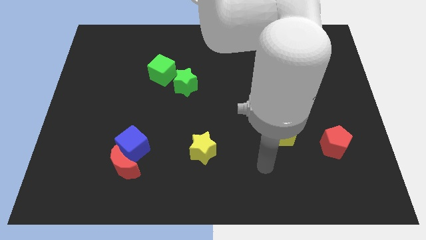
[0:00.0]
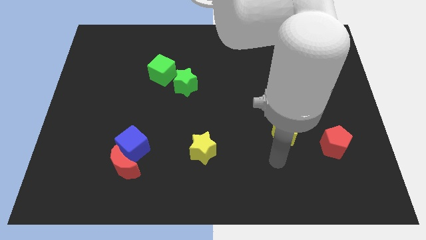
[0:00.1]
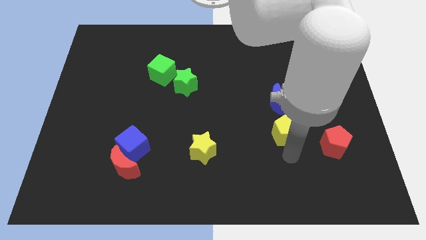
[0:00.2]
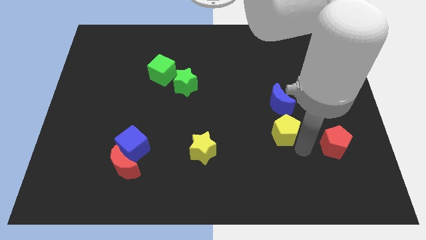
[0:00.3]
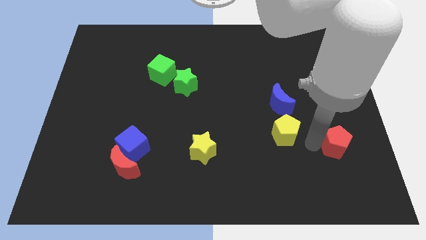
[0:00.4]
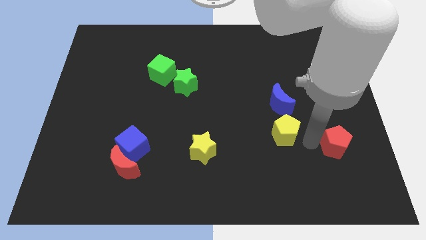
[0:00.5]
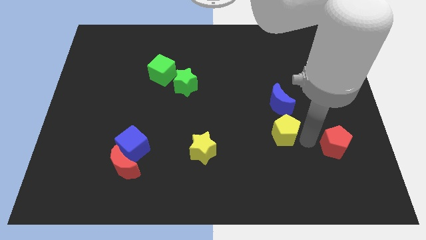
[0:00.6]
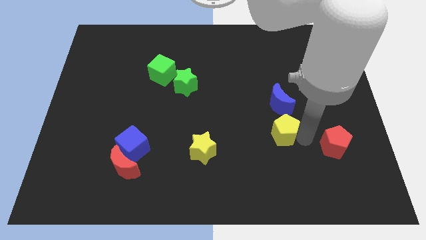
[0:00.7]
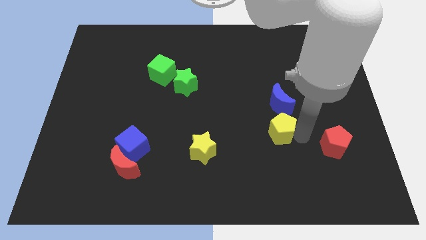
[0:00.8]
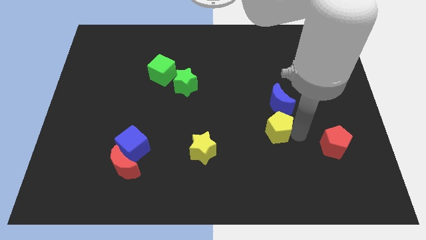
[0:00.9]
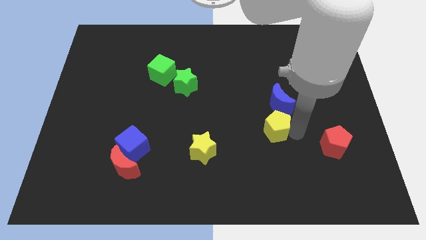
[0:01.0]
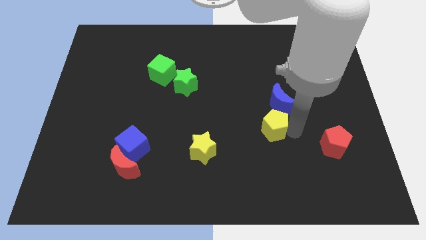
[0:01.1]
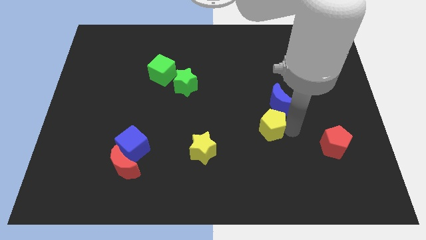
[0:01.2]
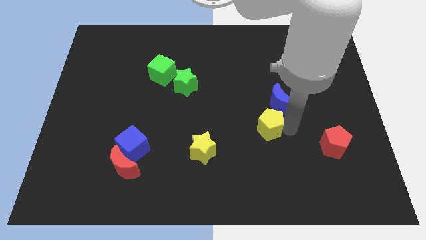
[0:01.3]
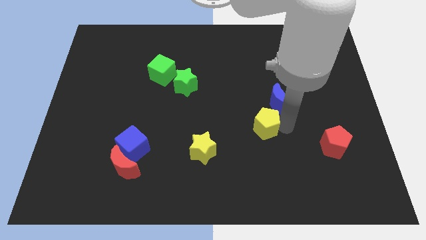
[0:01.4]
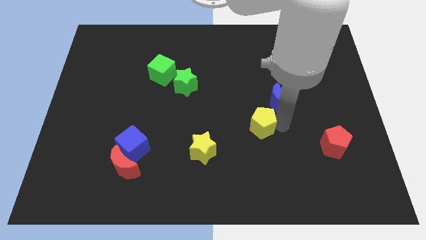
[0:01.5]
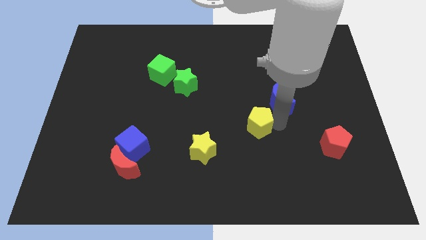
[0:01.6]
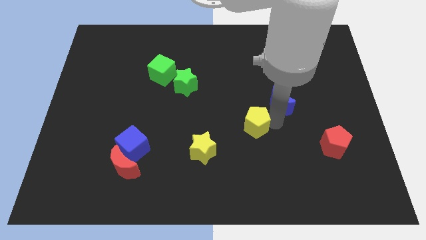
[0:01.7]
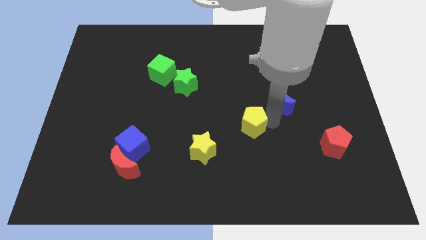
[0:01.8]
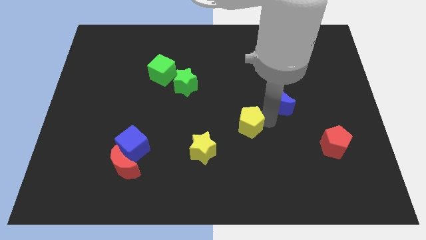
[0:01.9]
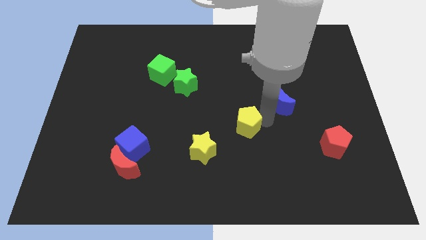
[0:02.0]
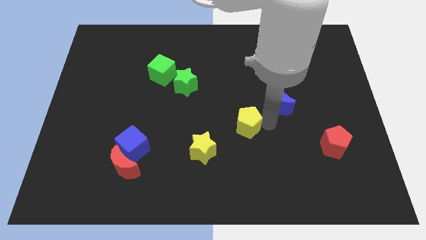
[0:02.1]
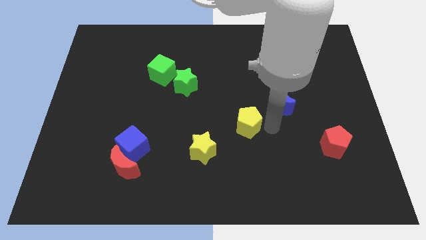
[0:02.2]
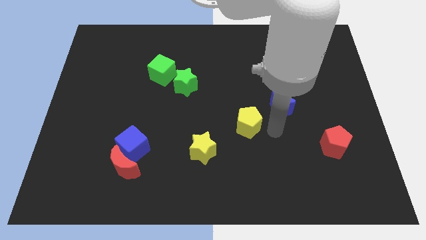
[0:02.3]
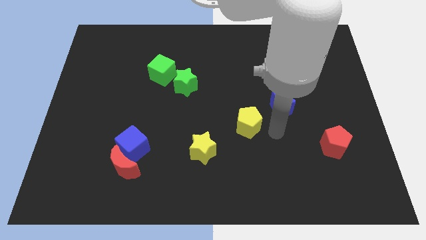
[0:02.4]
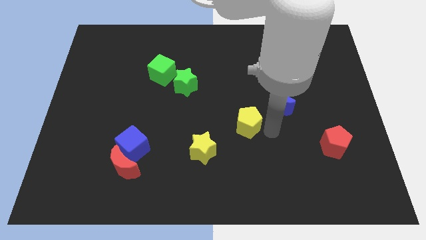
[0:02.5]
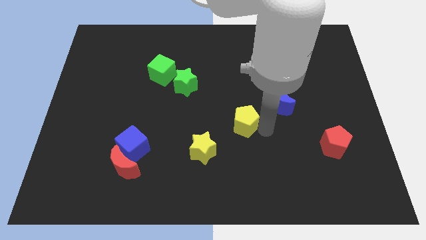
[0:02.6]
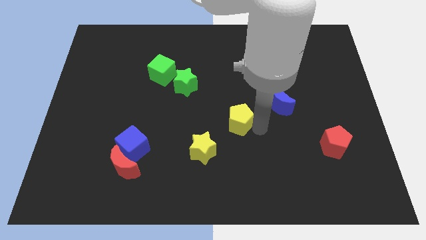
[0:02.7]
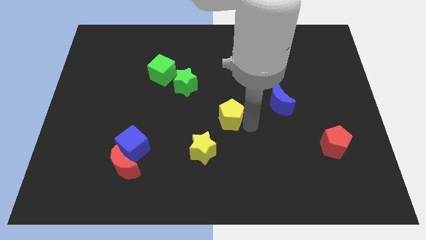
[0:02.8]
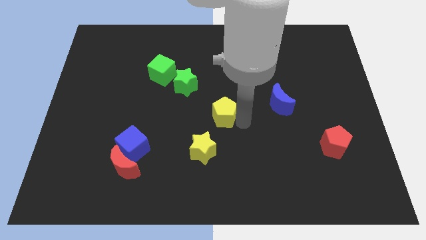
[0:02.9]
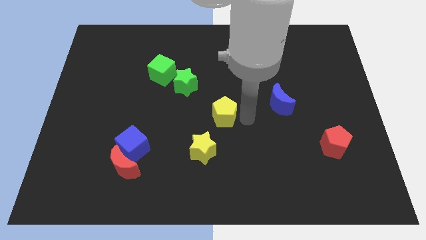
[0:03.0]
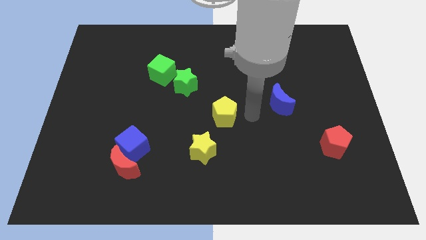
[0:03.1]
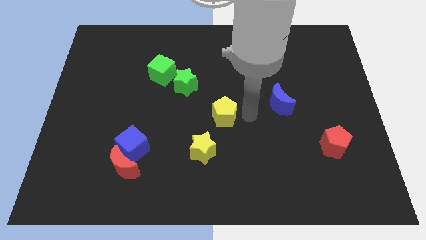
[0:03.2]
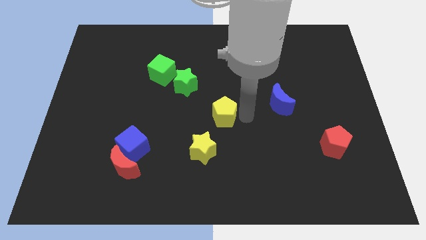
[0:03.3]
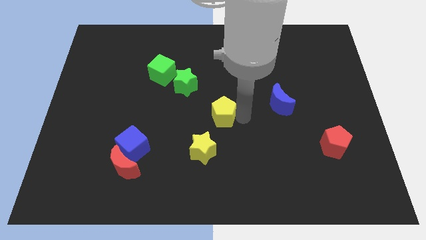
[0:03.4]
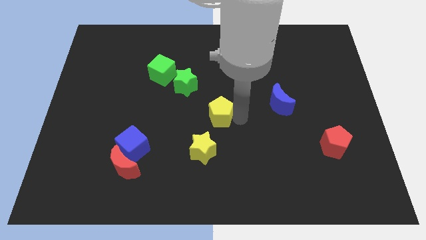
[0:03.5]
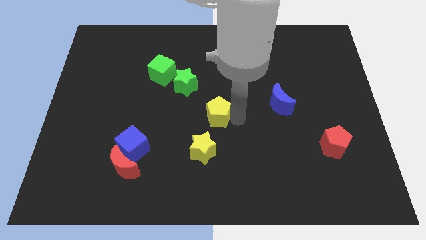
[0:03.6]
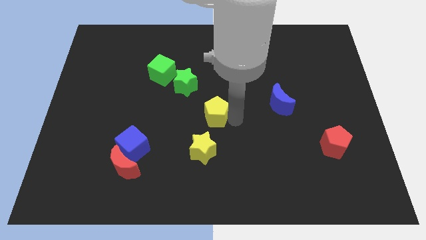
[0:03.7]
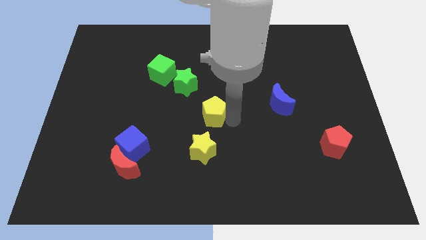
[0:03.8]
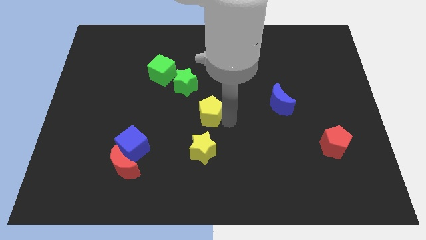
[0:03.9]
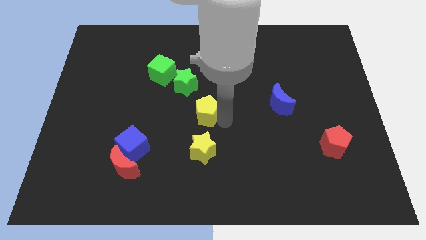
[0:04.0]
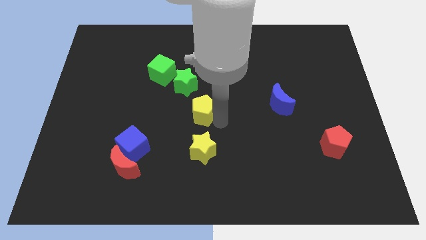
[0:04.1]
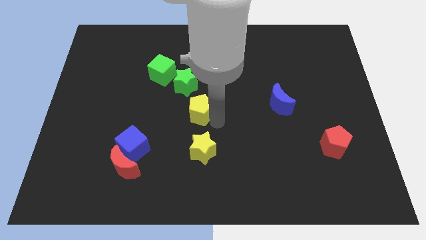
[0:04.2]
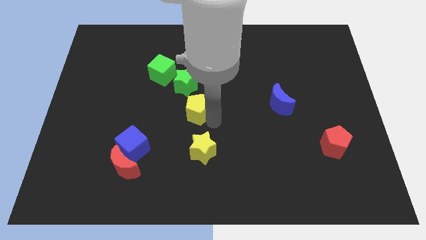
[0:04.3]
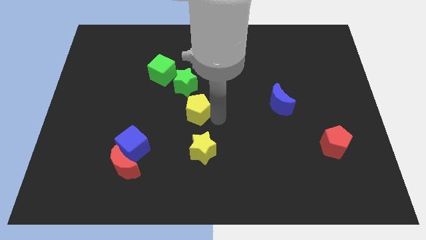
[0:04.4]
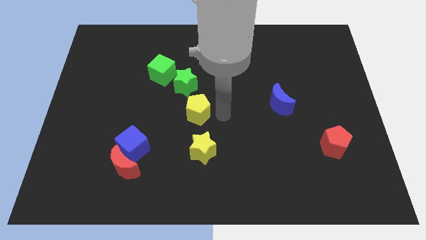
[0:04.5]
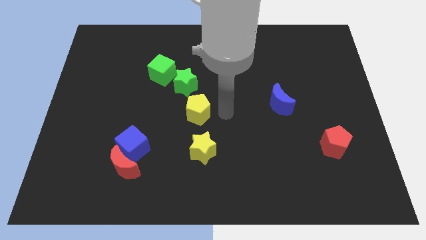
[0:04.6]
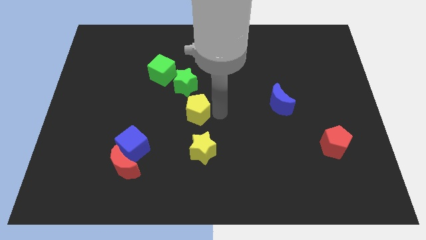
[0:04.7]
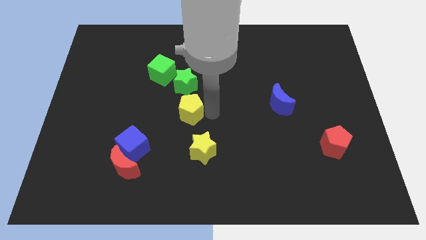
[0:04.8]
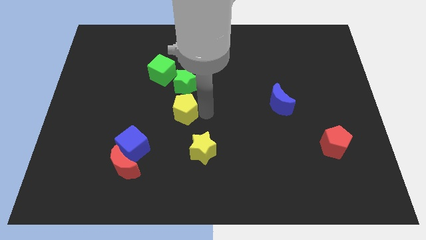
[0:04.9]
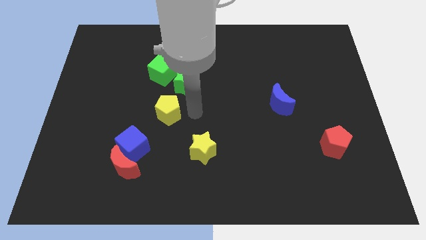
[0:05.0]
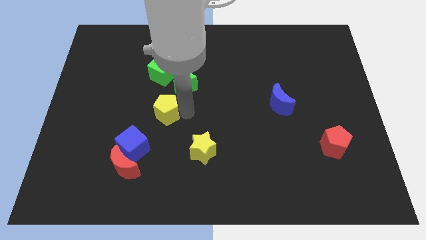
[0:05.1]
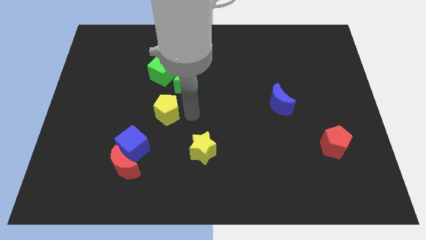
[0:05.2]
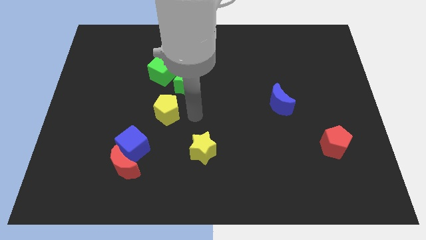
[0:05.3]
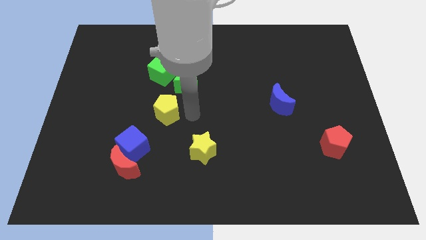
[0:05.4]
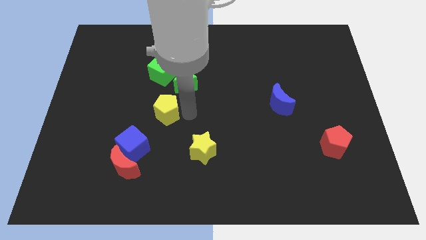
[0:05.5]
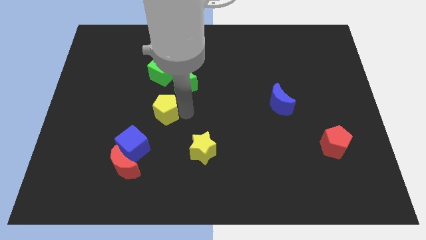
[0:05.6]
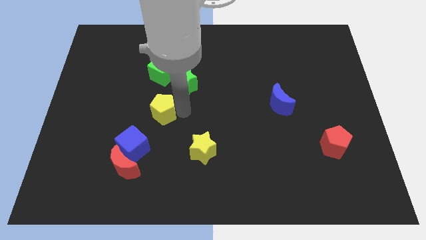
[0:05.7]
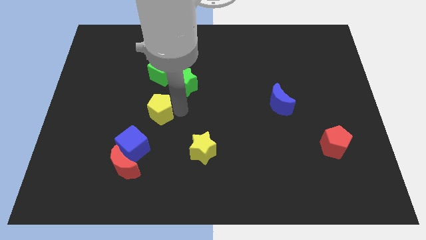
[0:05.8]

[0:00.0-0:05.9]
push the yellow pentagon above the blue cube

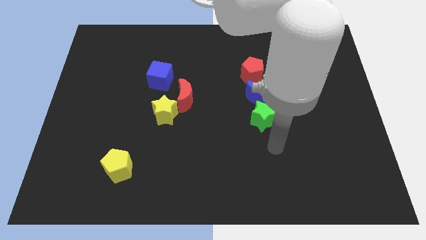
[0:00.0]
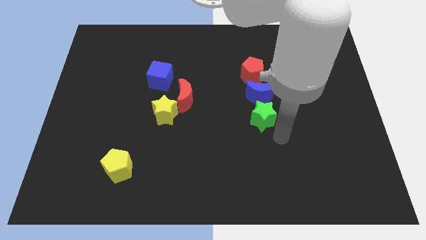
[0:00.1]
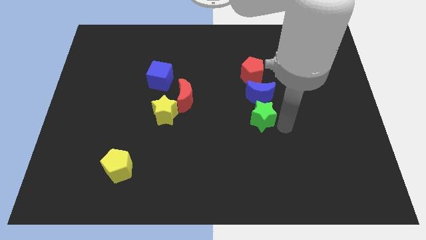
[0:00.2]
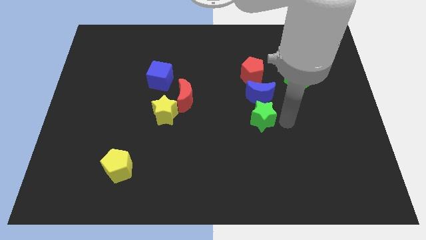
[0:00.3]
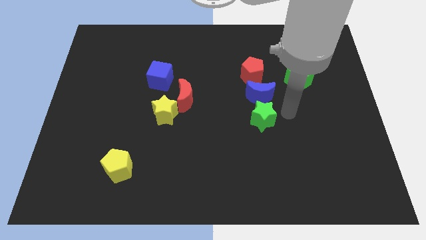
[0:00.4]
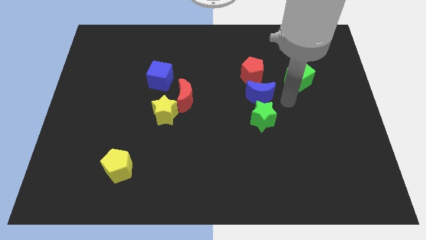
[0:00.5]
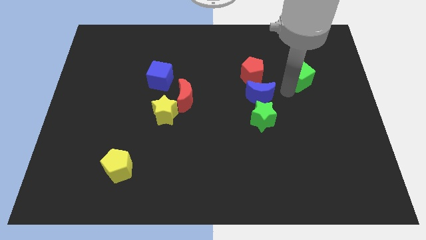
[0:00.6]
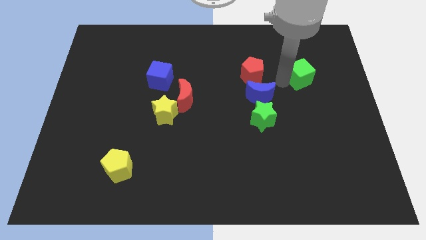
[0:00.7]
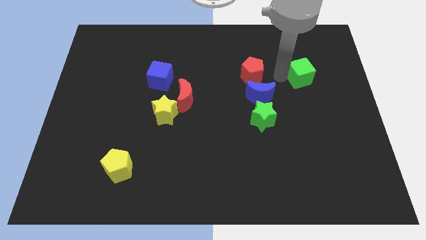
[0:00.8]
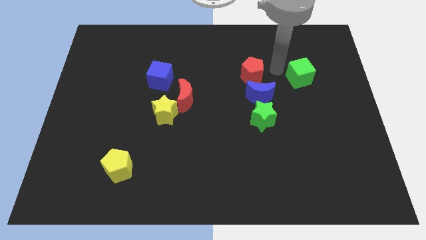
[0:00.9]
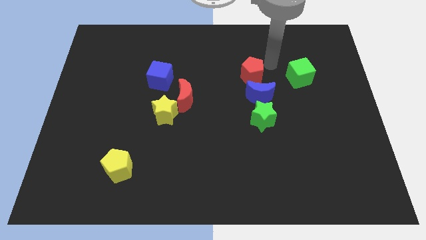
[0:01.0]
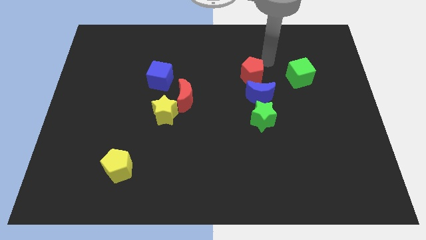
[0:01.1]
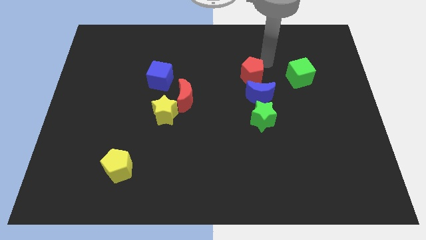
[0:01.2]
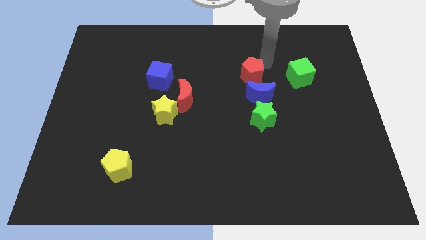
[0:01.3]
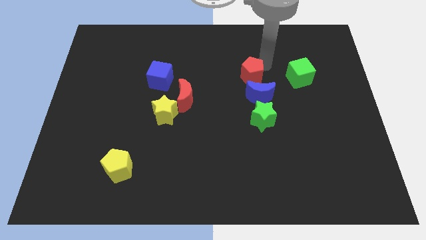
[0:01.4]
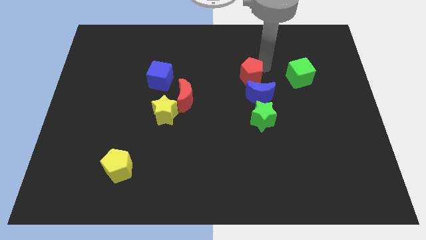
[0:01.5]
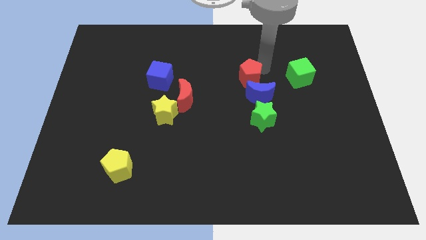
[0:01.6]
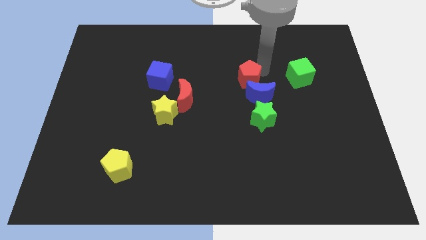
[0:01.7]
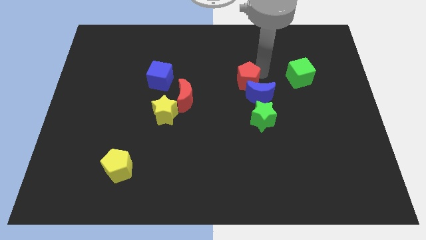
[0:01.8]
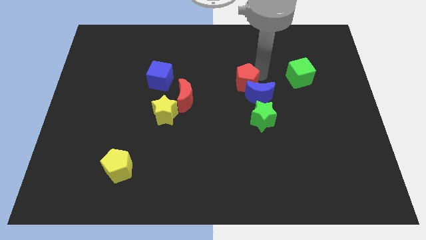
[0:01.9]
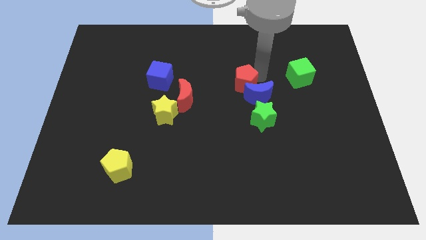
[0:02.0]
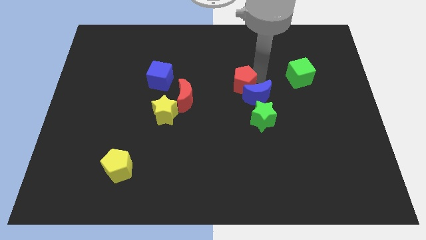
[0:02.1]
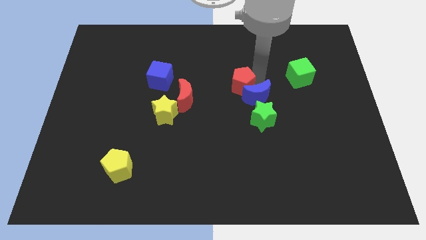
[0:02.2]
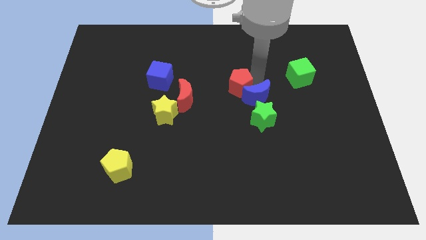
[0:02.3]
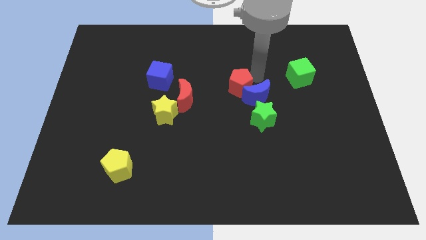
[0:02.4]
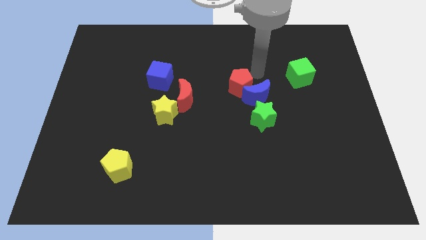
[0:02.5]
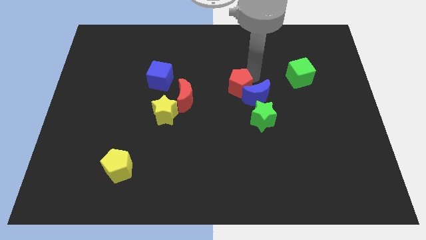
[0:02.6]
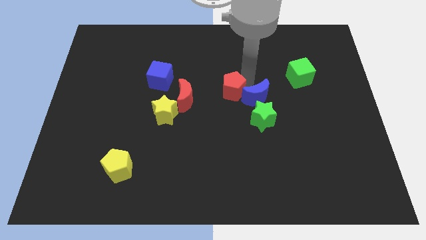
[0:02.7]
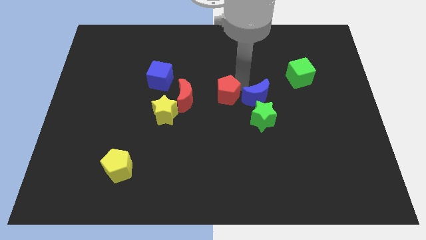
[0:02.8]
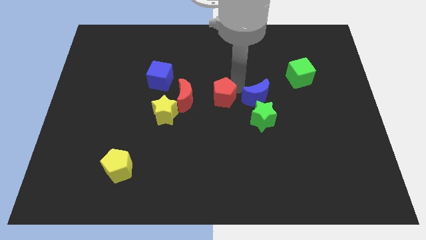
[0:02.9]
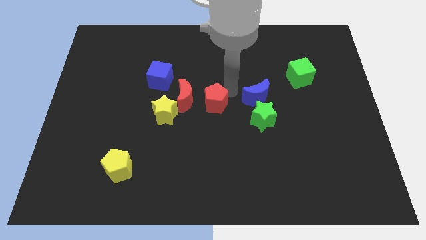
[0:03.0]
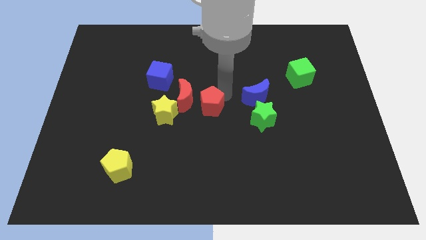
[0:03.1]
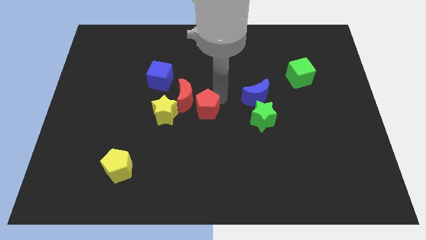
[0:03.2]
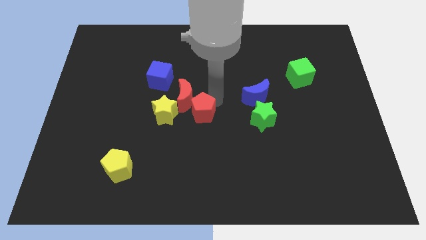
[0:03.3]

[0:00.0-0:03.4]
move the red pentagon below the red moon
